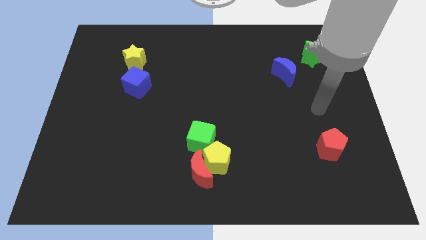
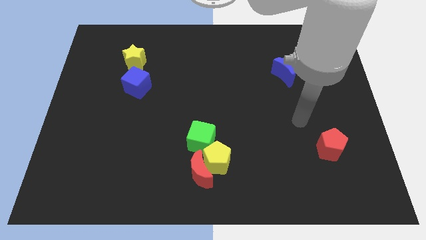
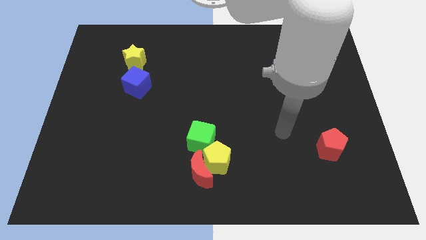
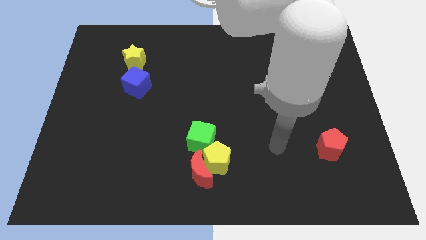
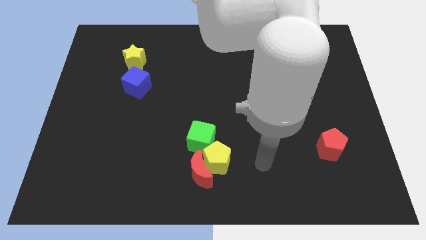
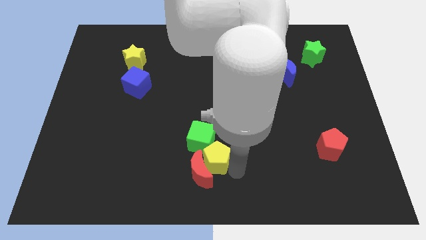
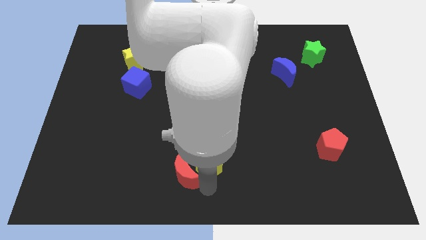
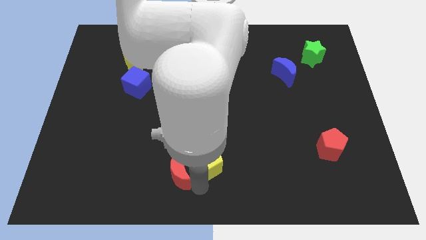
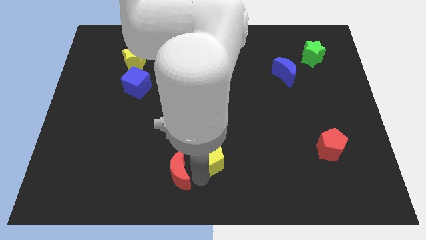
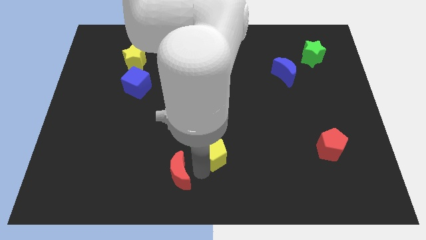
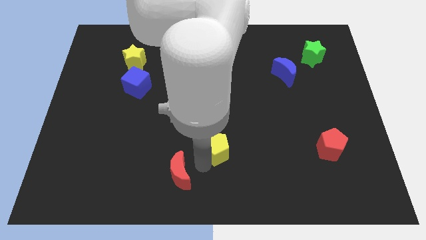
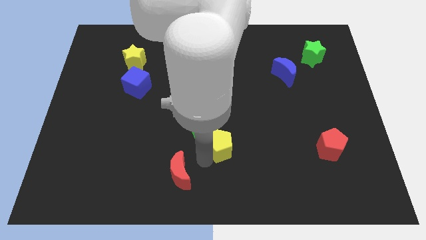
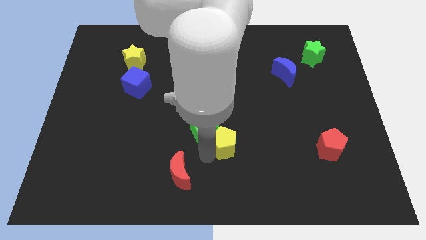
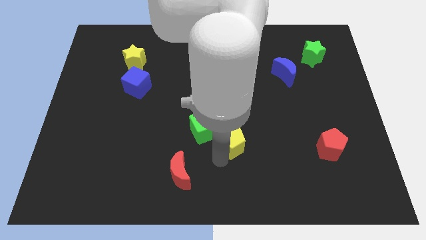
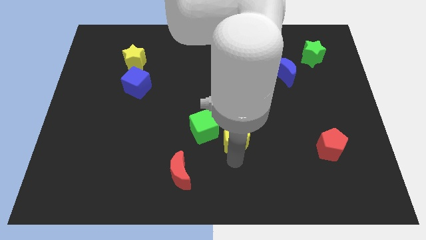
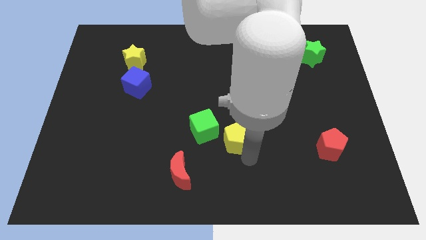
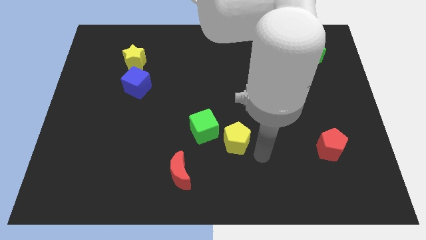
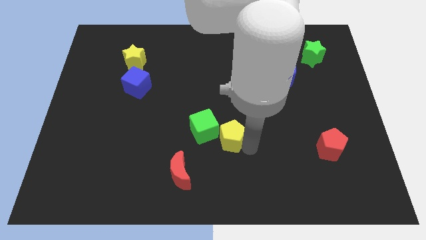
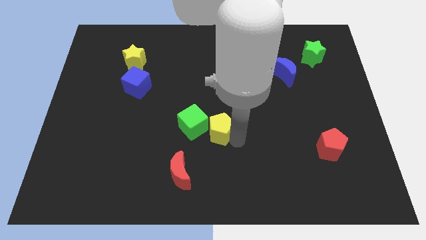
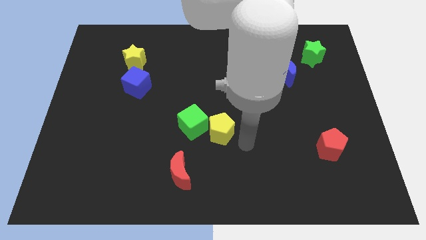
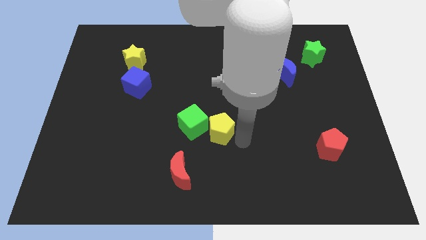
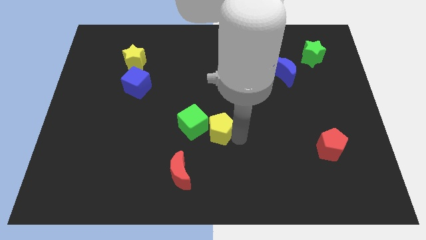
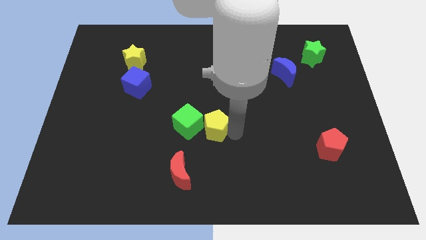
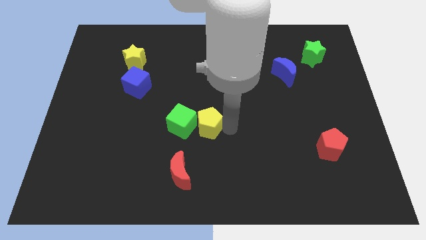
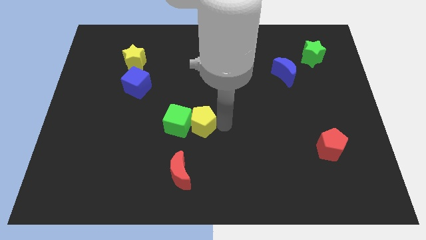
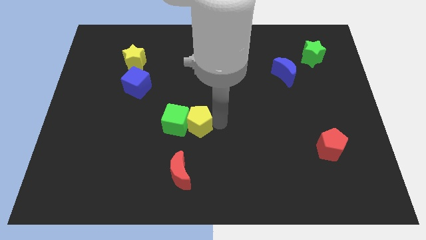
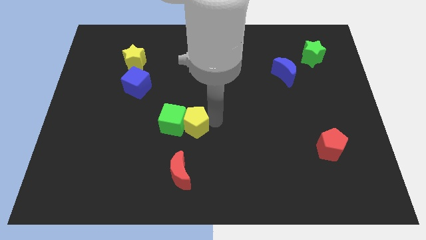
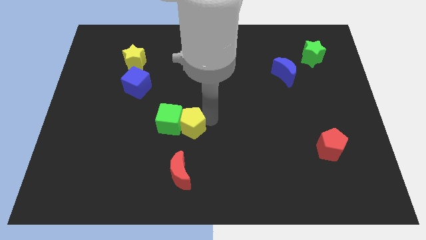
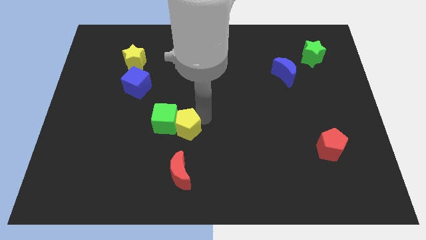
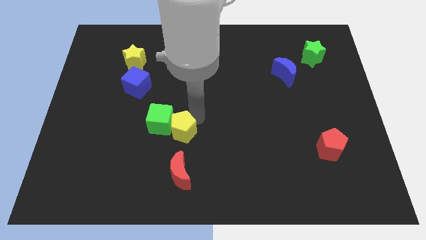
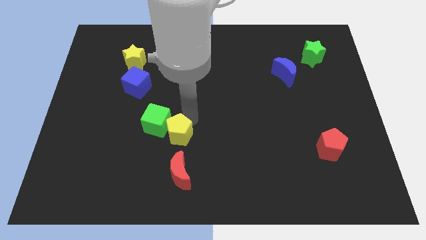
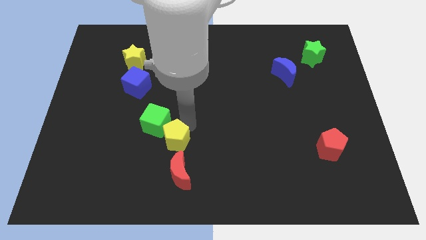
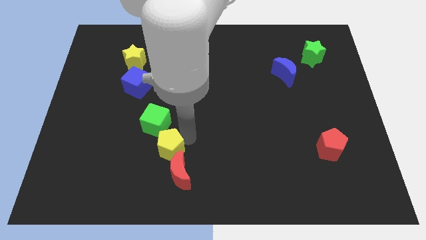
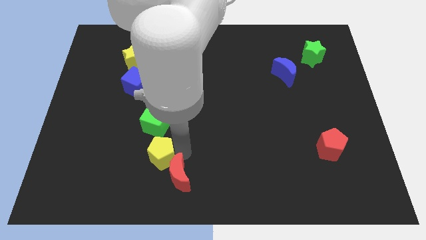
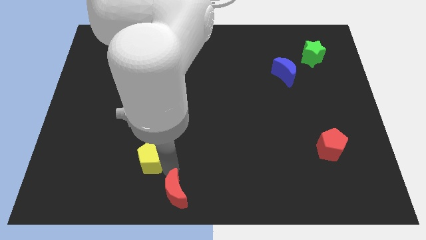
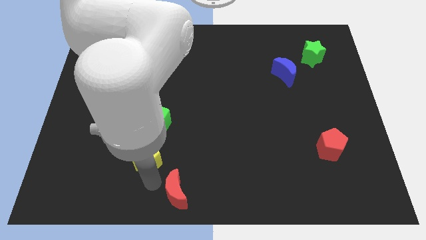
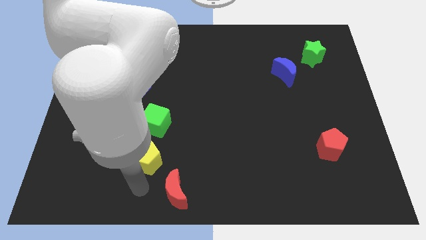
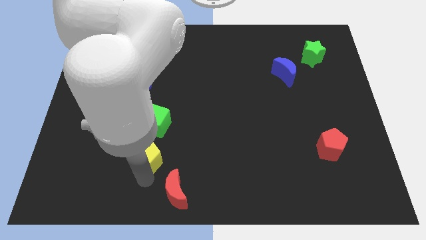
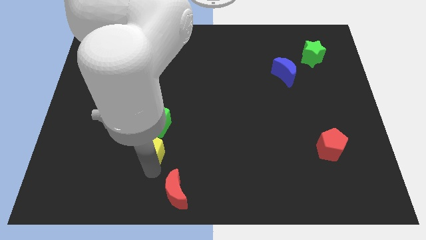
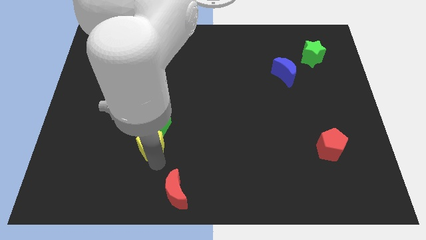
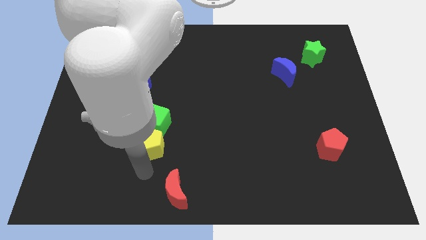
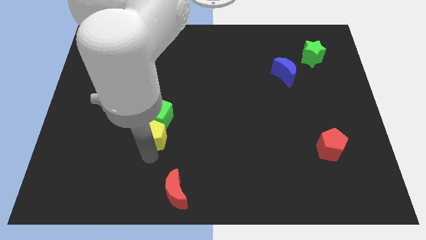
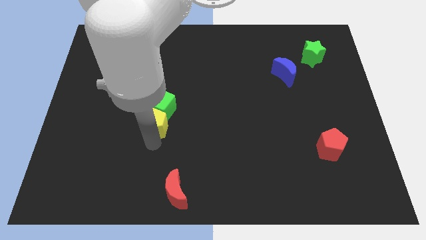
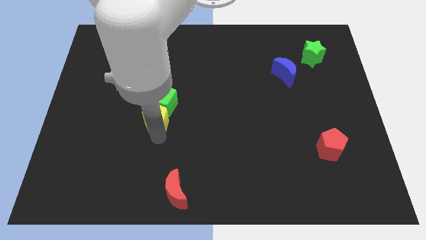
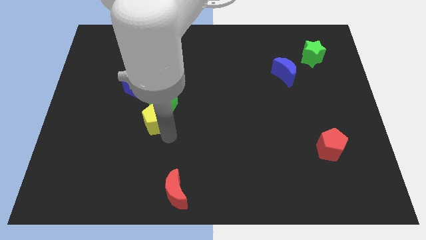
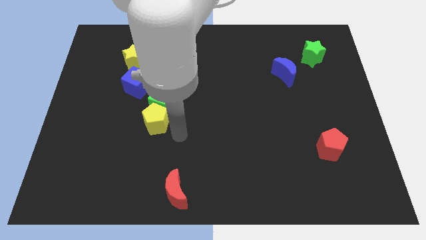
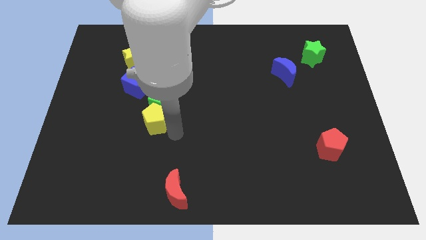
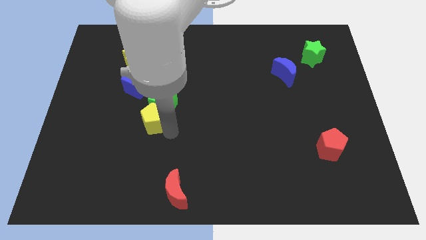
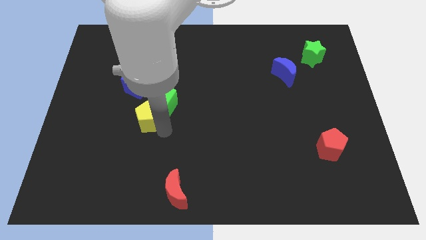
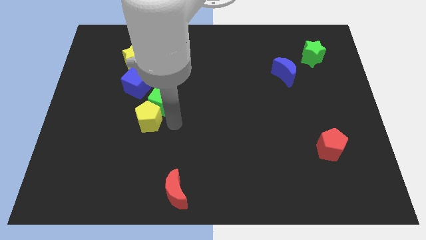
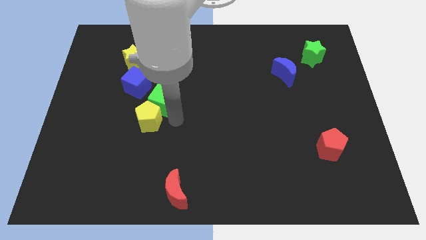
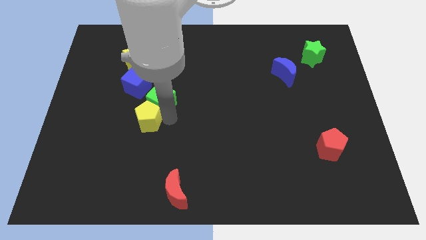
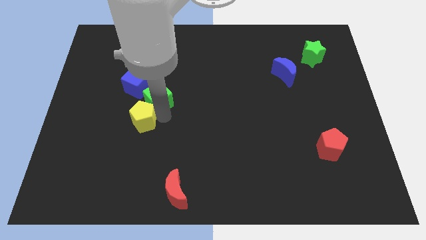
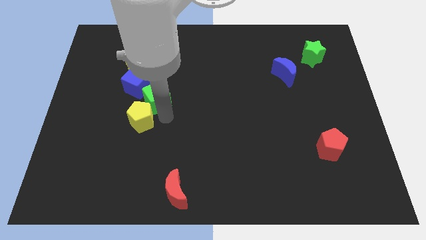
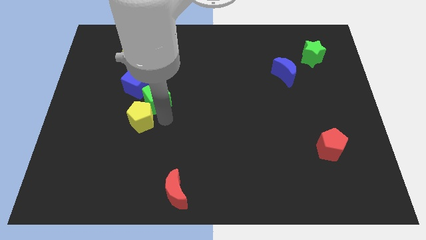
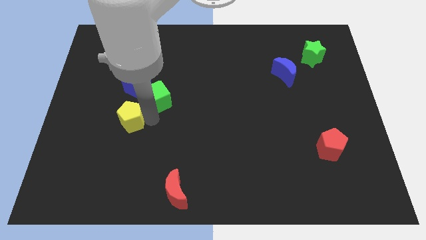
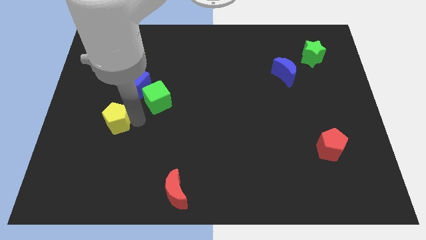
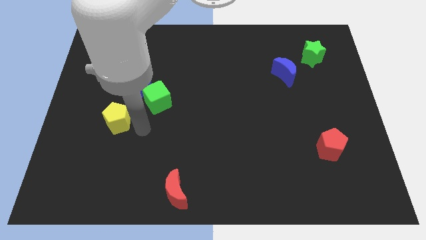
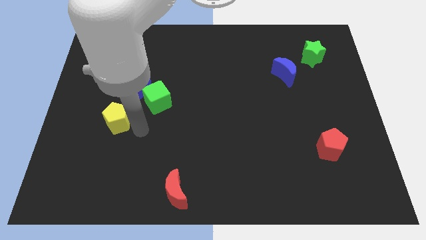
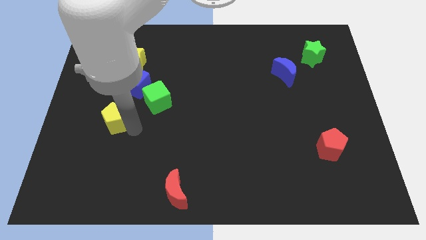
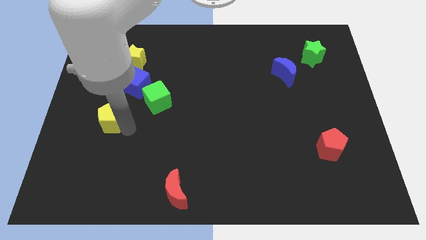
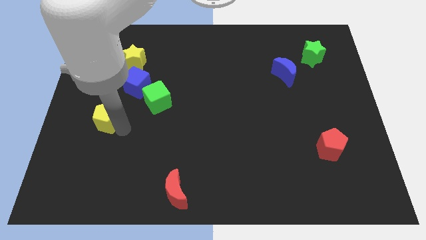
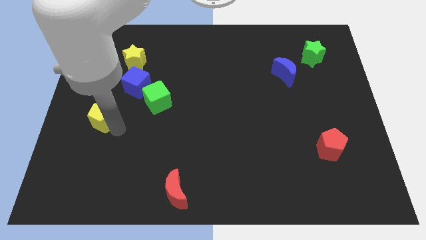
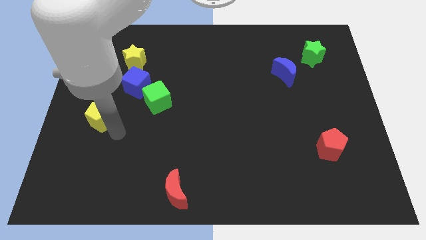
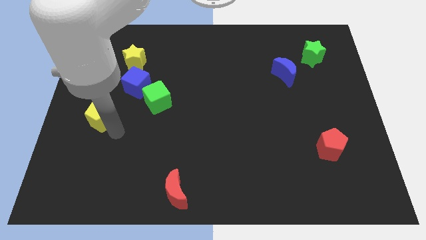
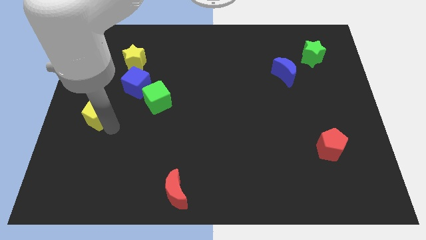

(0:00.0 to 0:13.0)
slide the yellow pentagon to the center left
